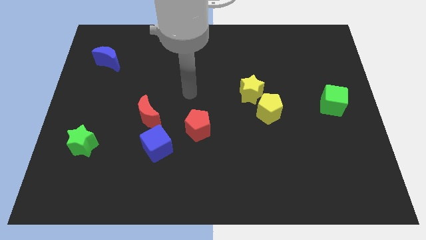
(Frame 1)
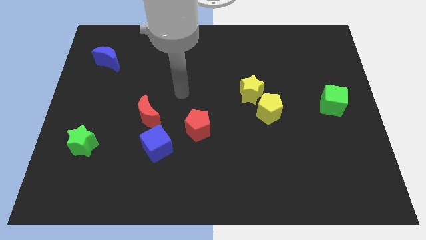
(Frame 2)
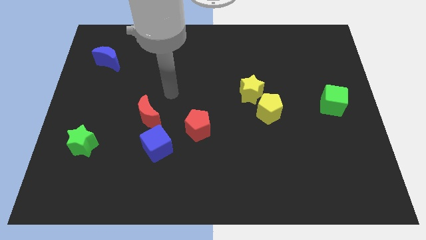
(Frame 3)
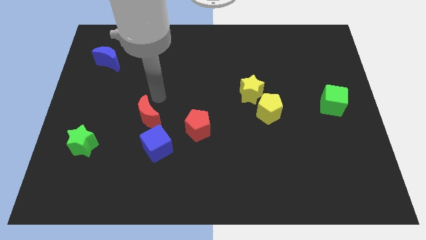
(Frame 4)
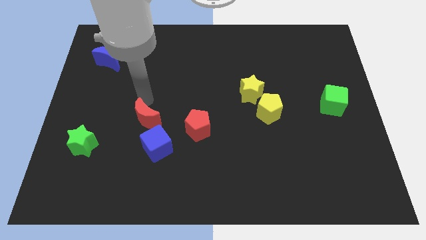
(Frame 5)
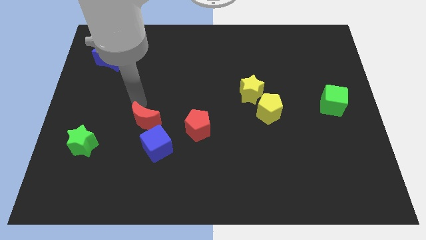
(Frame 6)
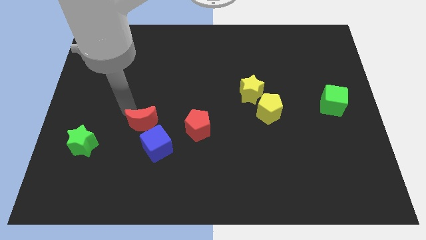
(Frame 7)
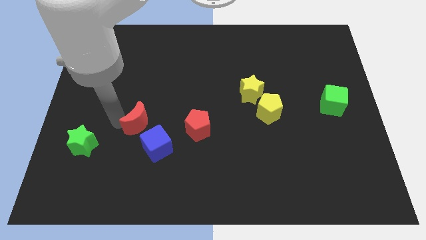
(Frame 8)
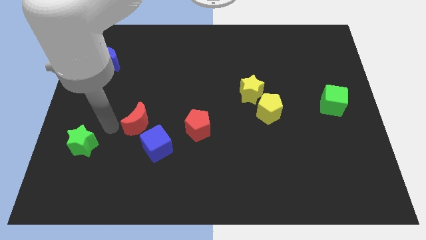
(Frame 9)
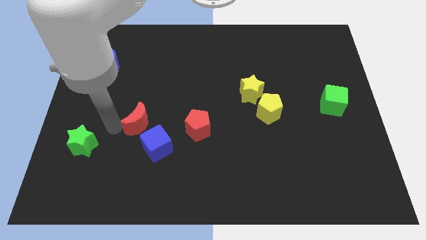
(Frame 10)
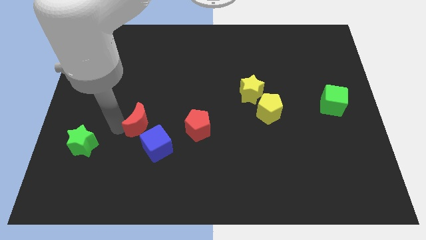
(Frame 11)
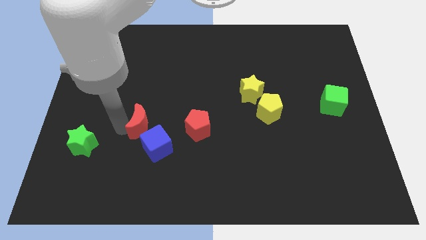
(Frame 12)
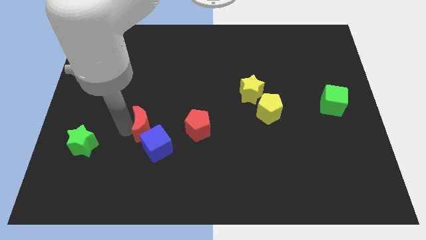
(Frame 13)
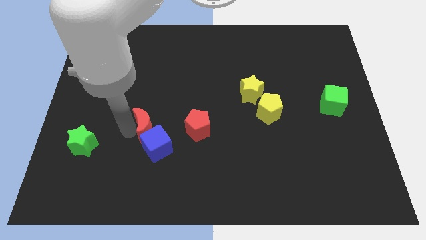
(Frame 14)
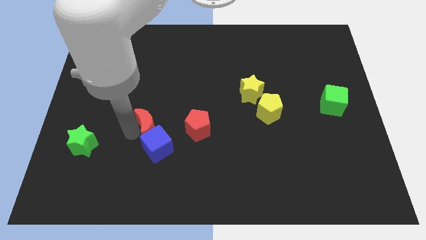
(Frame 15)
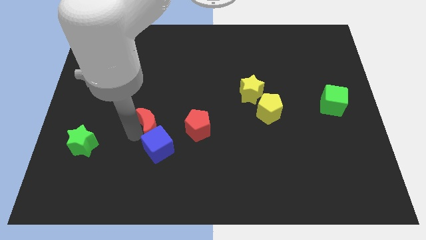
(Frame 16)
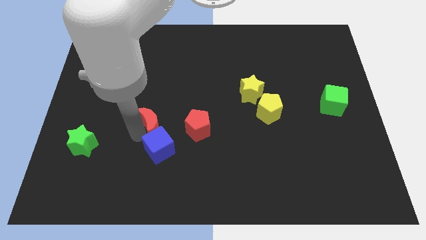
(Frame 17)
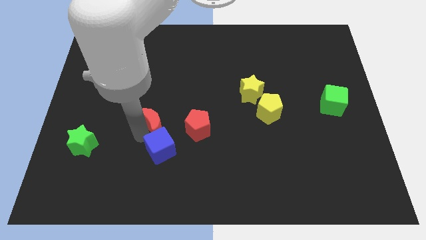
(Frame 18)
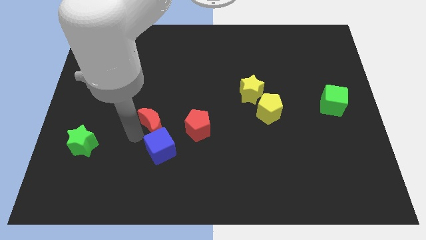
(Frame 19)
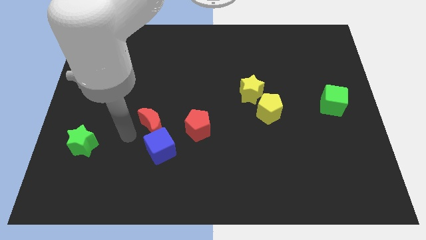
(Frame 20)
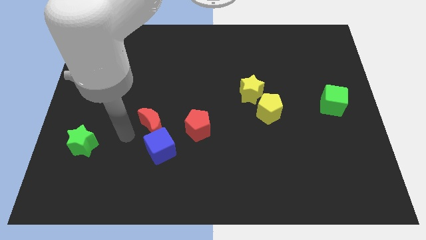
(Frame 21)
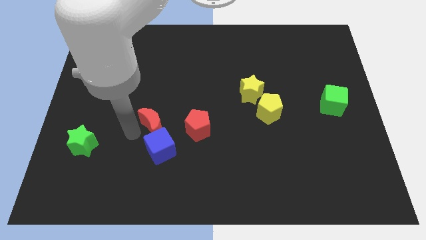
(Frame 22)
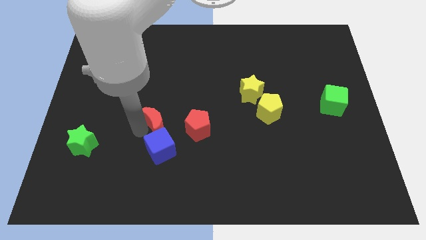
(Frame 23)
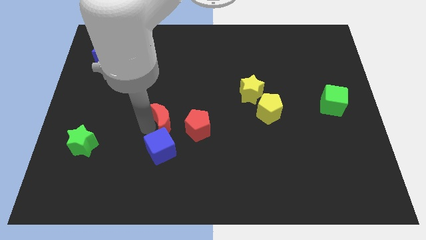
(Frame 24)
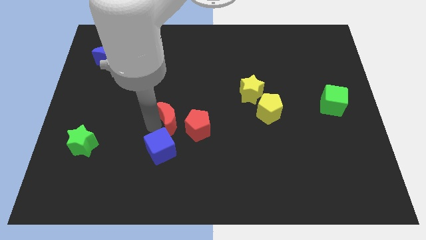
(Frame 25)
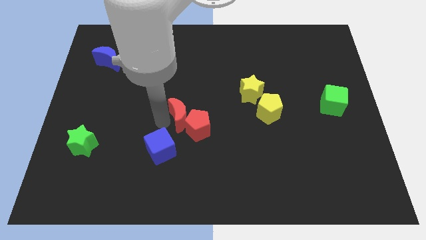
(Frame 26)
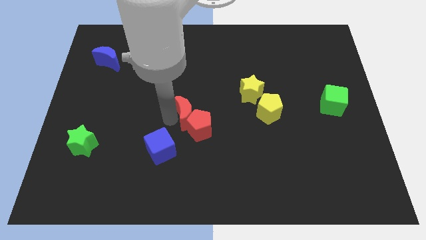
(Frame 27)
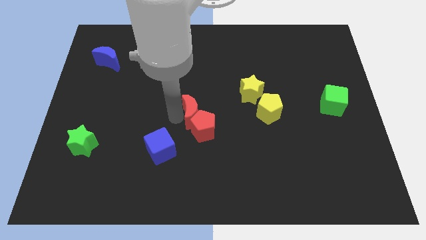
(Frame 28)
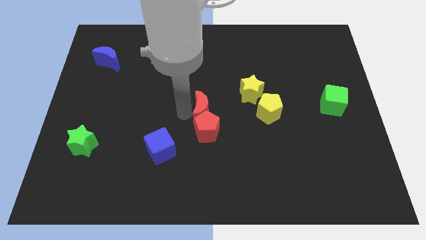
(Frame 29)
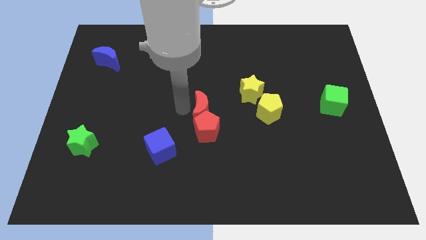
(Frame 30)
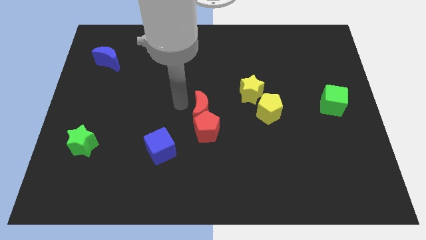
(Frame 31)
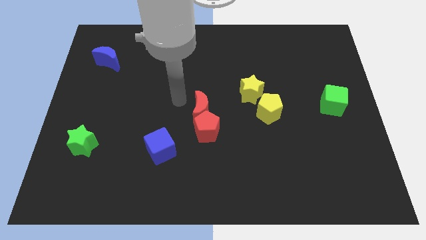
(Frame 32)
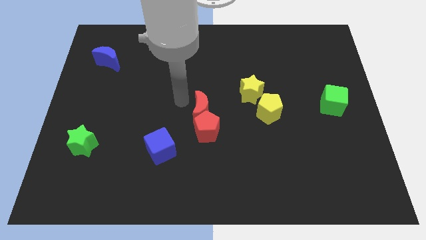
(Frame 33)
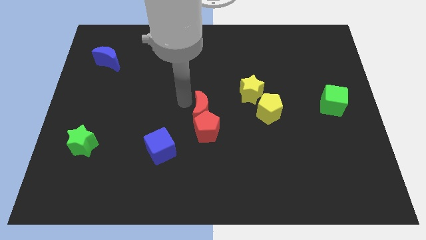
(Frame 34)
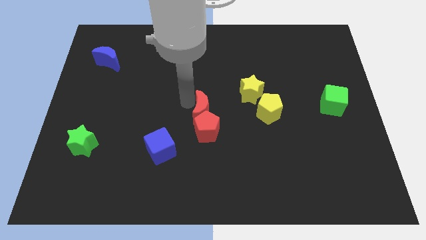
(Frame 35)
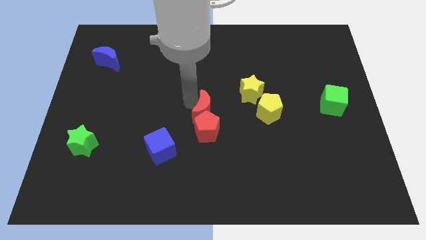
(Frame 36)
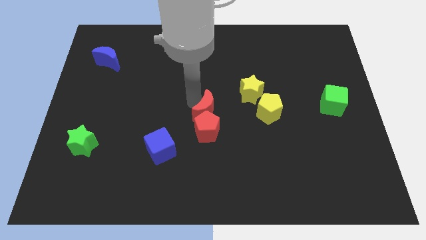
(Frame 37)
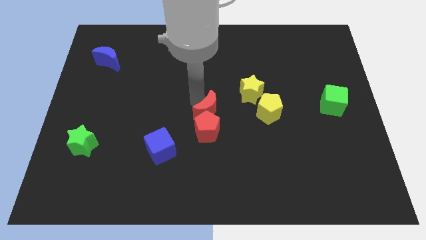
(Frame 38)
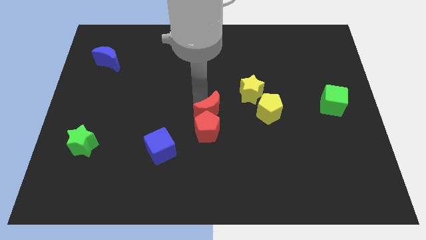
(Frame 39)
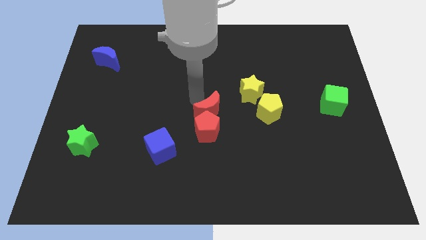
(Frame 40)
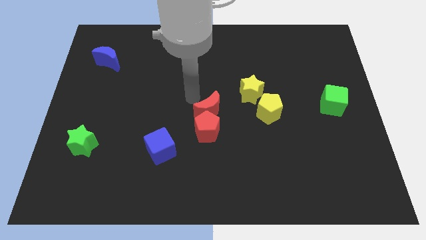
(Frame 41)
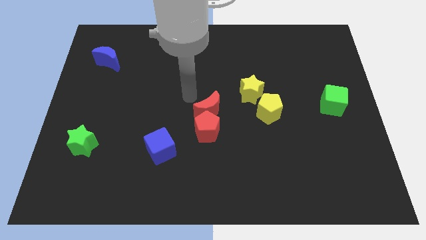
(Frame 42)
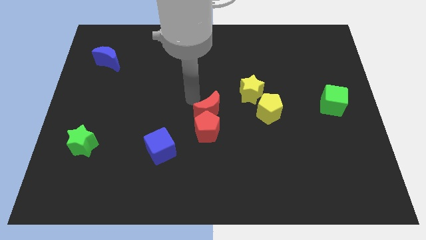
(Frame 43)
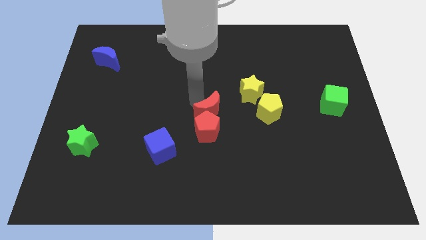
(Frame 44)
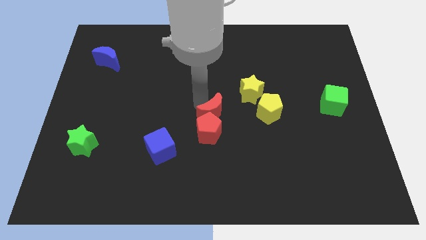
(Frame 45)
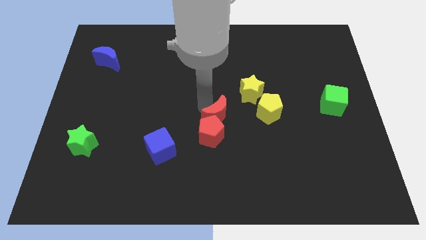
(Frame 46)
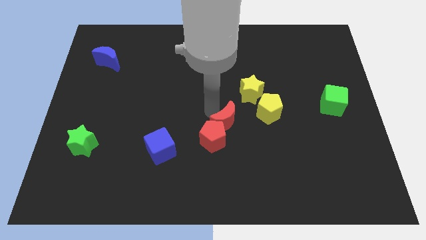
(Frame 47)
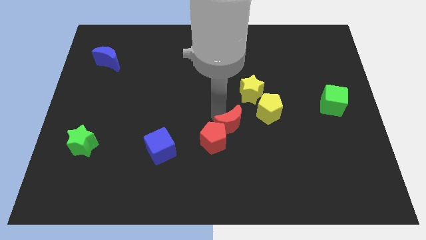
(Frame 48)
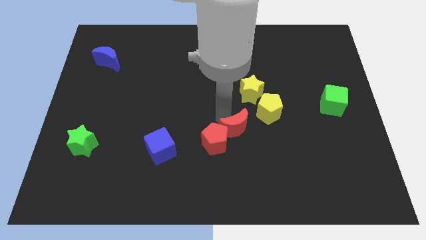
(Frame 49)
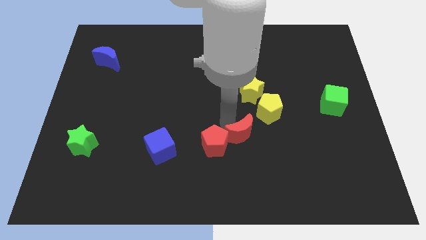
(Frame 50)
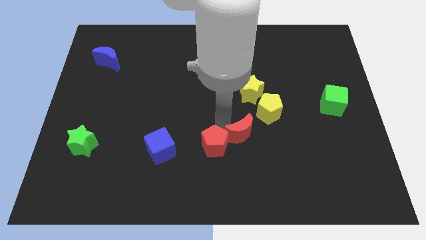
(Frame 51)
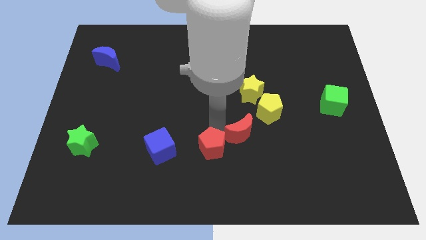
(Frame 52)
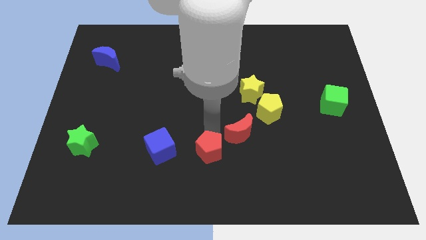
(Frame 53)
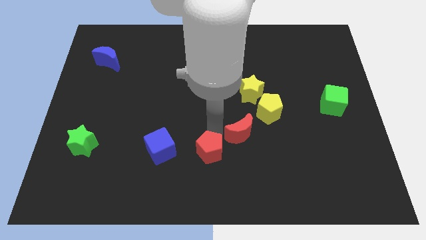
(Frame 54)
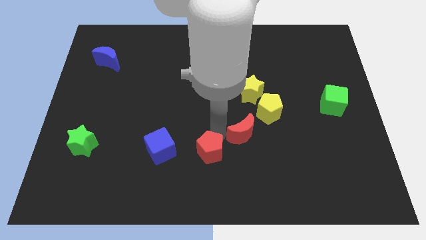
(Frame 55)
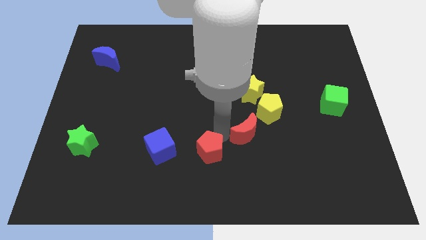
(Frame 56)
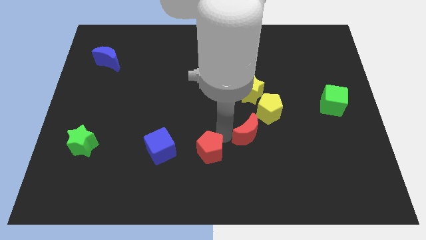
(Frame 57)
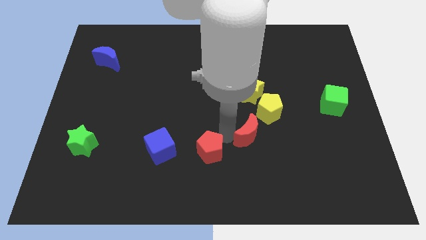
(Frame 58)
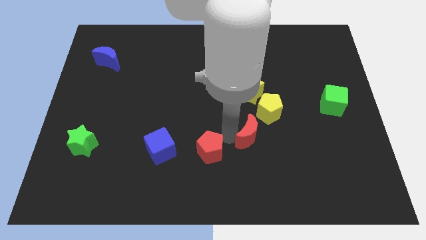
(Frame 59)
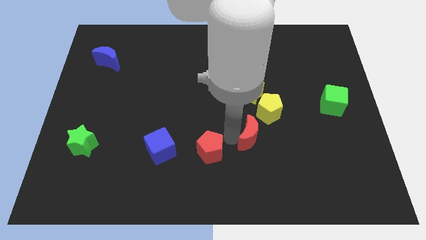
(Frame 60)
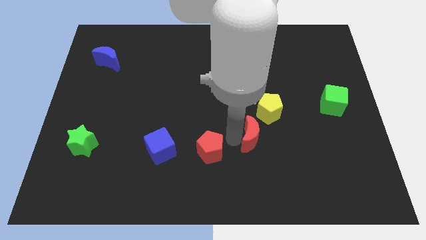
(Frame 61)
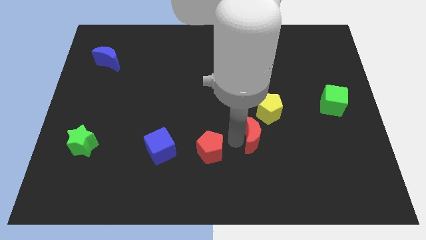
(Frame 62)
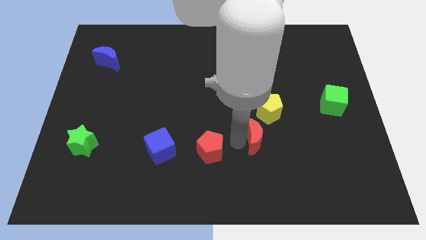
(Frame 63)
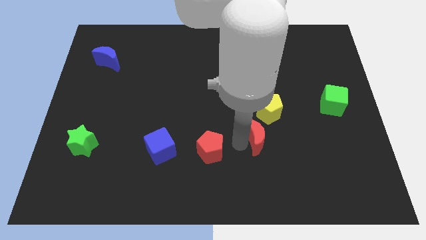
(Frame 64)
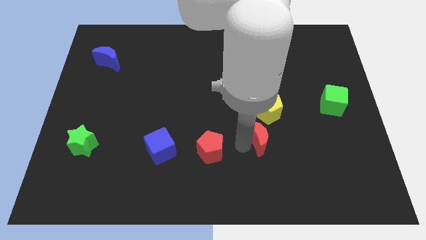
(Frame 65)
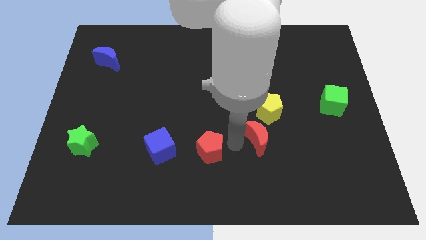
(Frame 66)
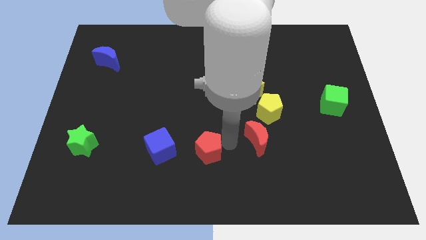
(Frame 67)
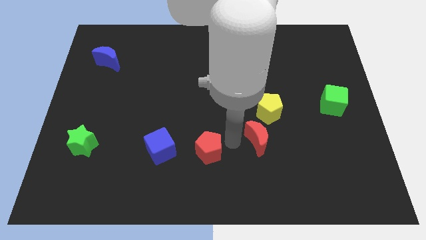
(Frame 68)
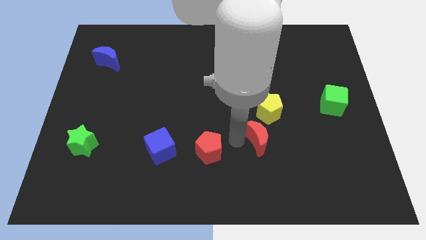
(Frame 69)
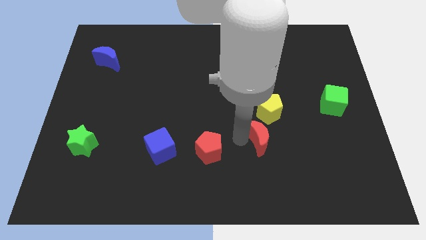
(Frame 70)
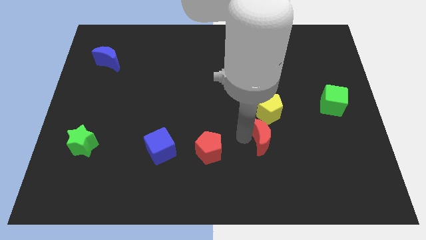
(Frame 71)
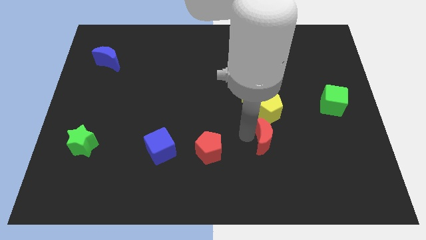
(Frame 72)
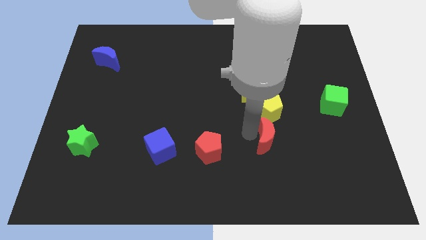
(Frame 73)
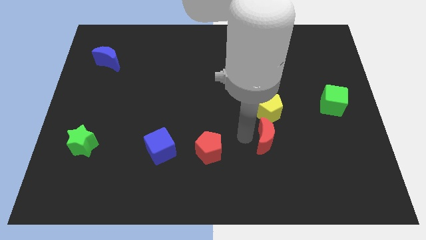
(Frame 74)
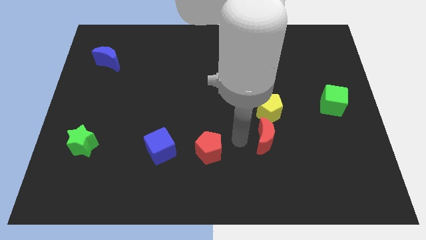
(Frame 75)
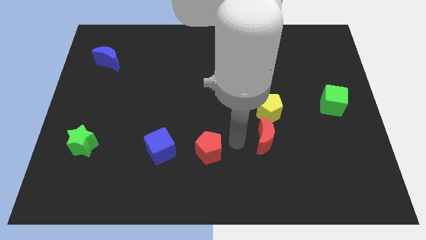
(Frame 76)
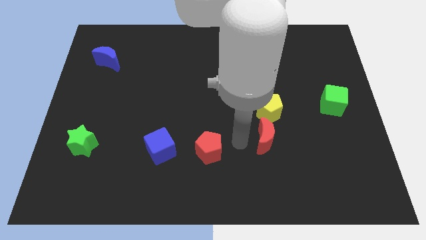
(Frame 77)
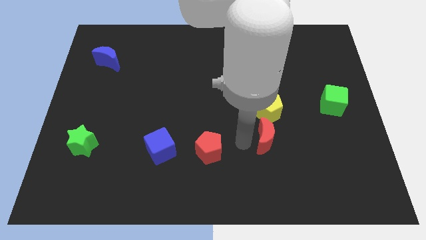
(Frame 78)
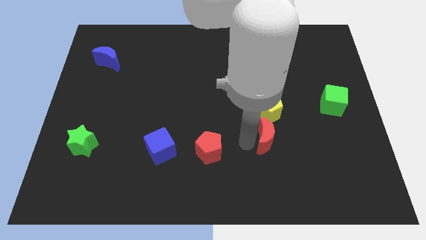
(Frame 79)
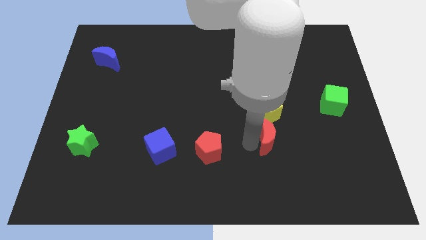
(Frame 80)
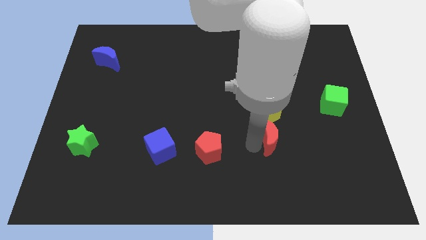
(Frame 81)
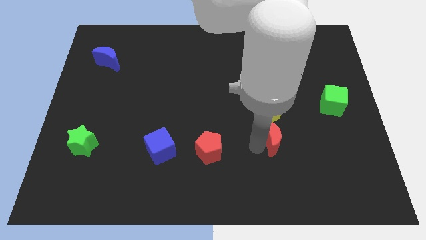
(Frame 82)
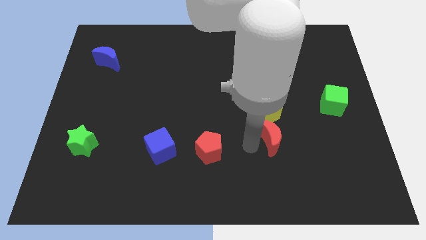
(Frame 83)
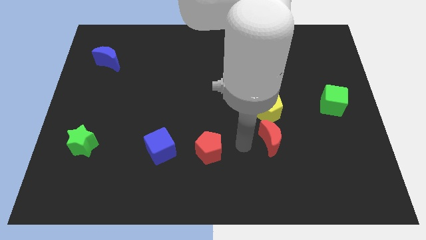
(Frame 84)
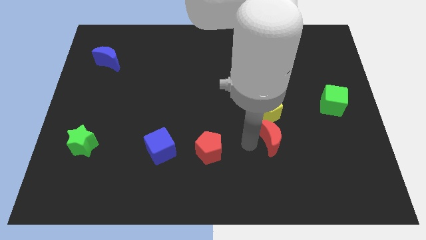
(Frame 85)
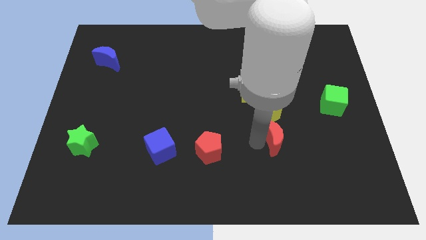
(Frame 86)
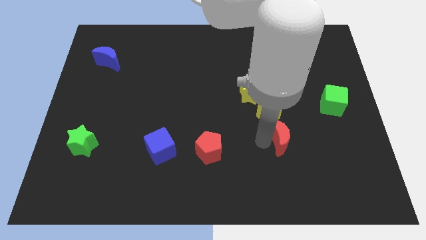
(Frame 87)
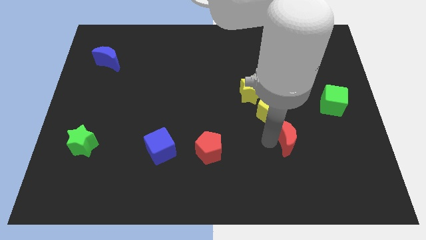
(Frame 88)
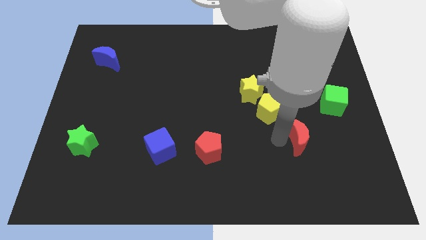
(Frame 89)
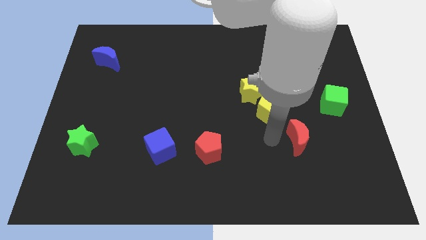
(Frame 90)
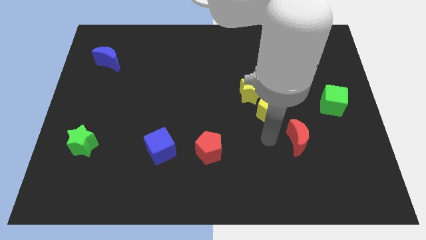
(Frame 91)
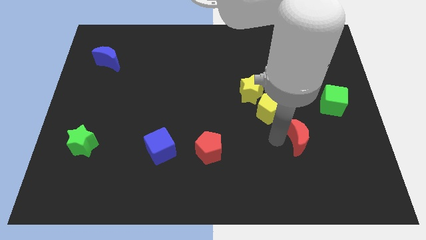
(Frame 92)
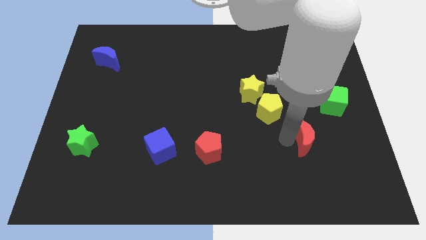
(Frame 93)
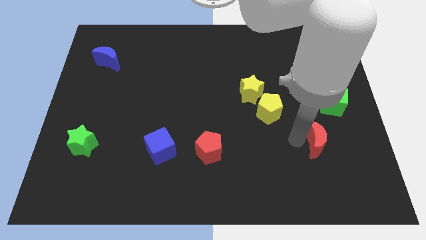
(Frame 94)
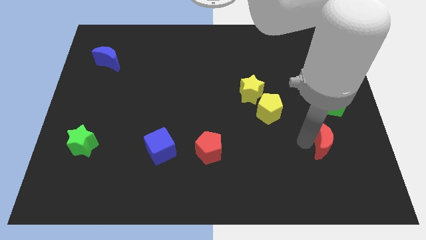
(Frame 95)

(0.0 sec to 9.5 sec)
put the red moon to the bottom of the green cube
